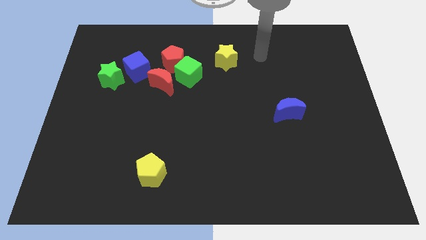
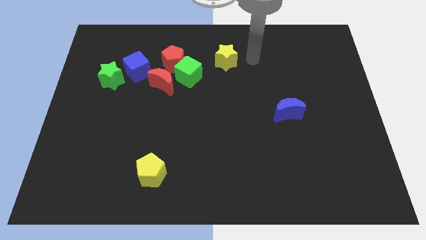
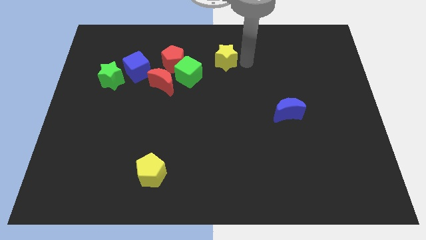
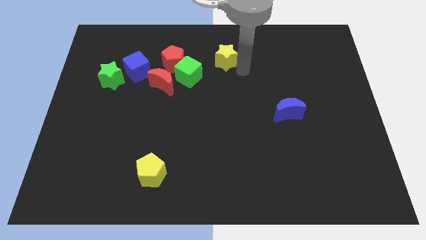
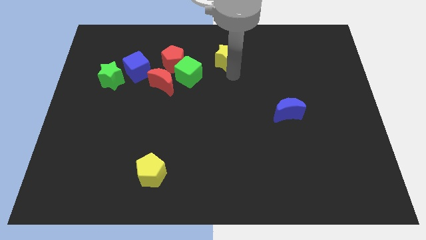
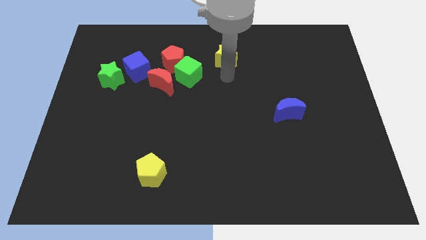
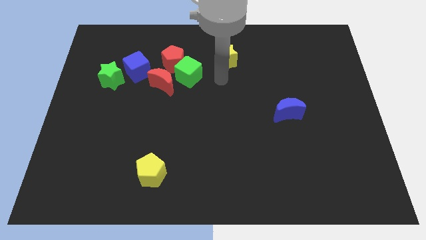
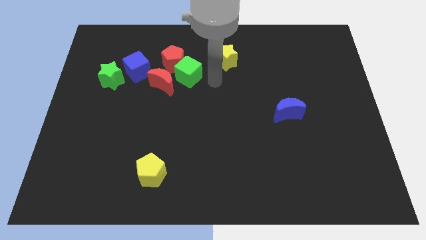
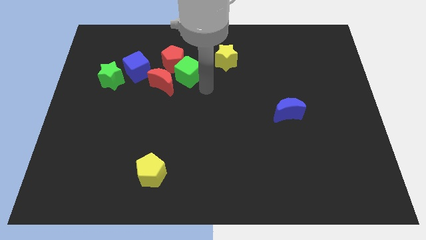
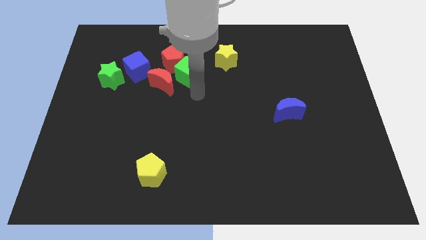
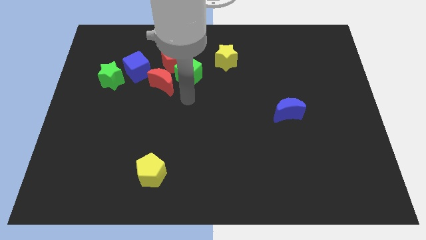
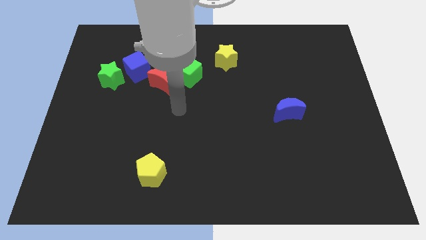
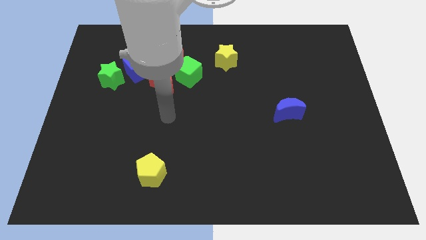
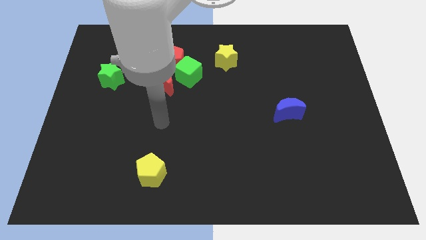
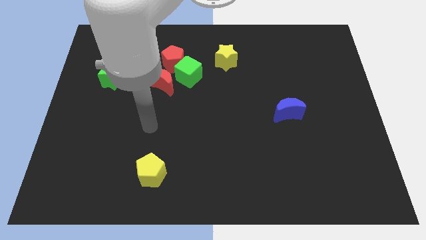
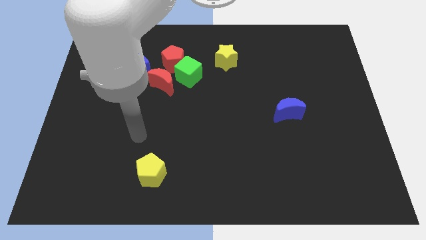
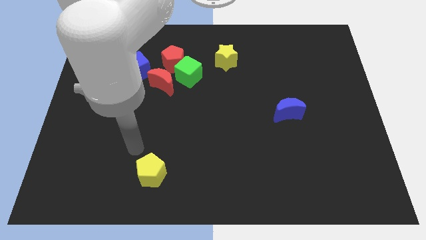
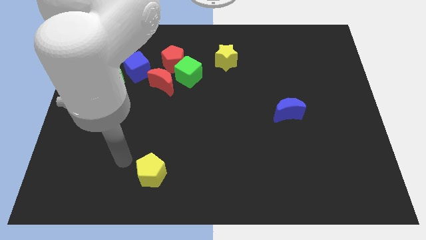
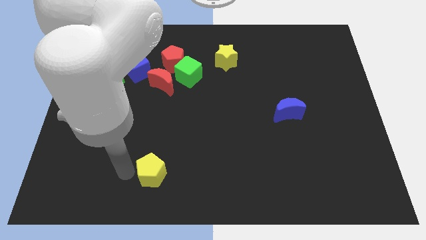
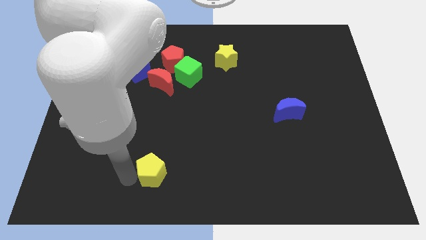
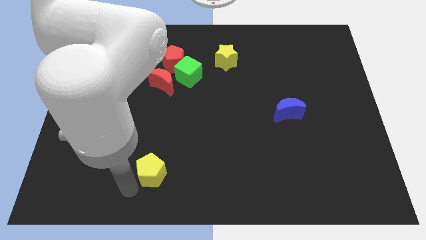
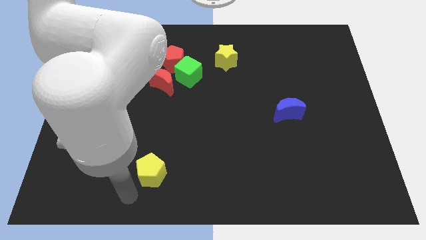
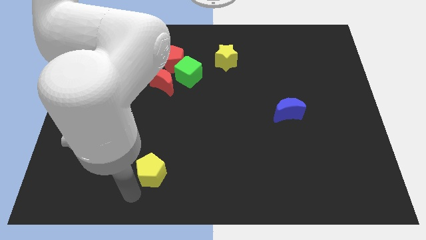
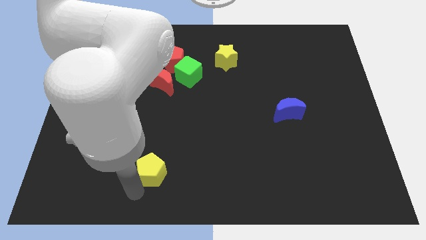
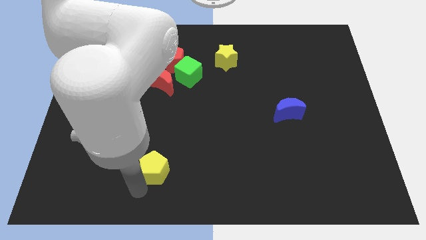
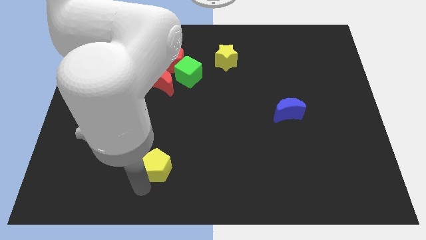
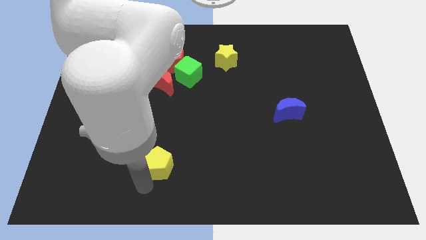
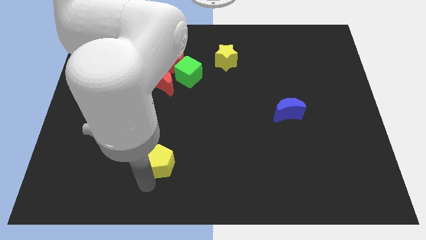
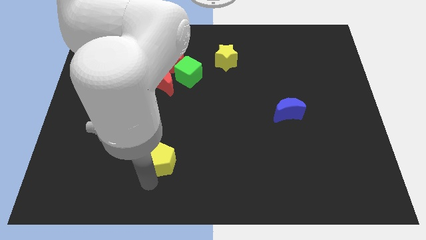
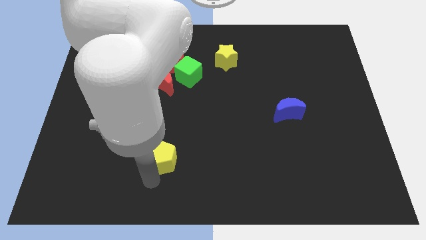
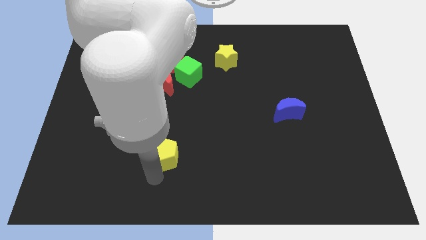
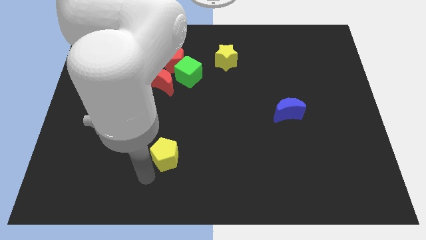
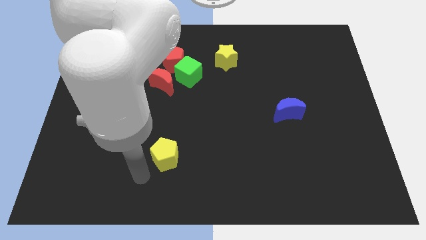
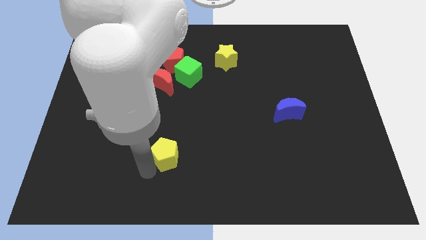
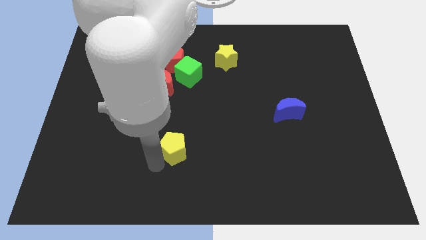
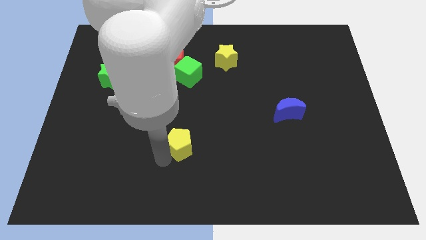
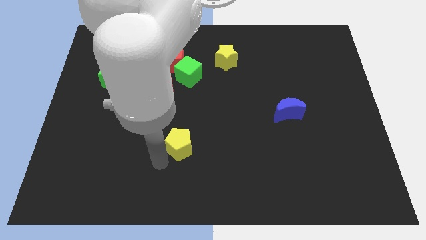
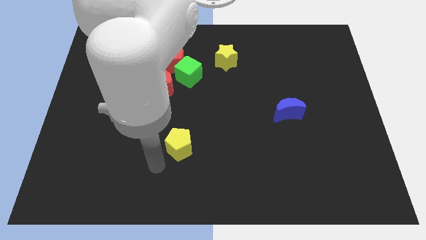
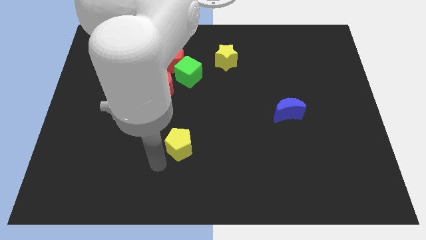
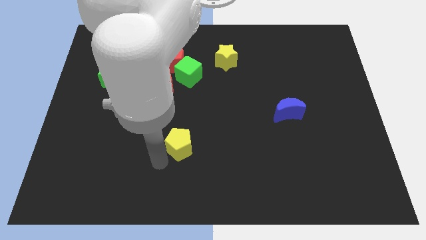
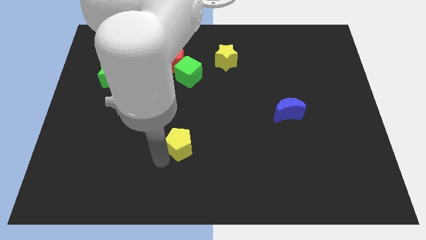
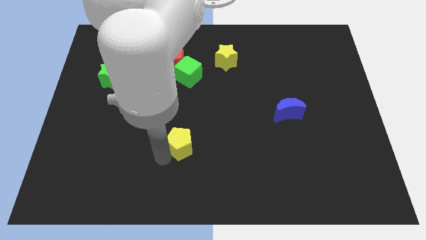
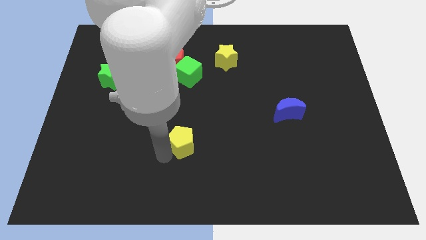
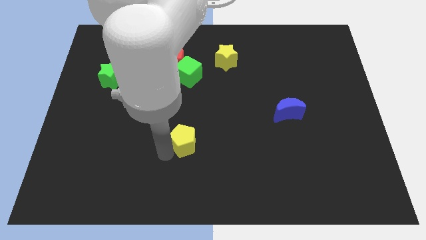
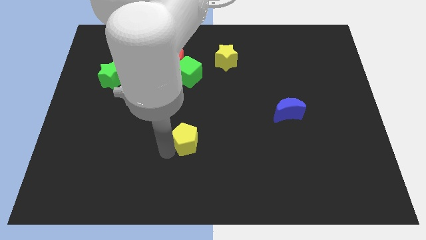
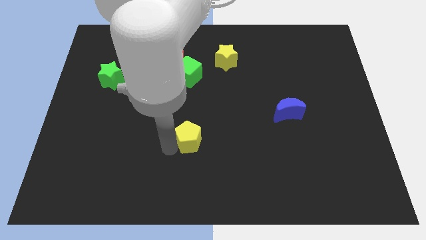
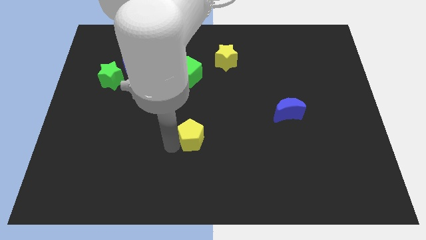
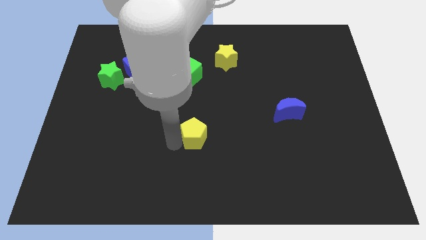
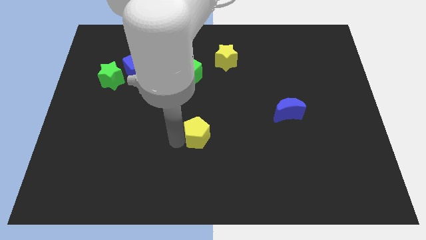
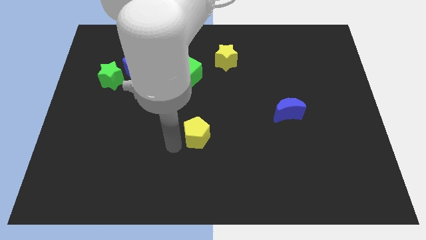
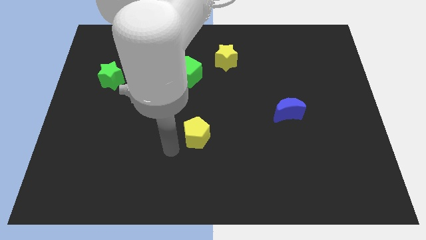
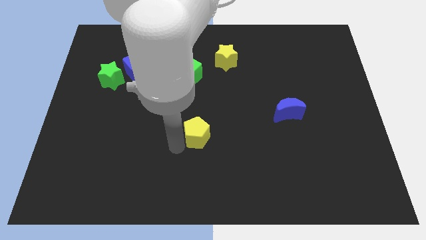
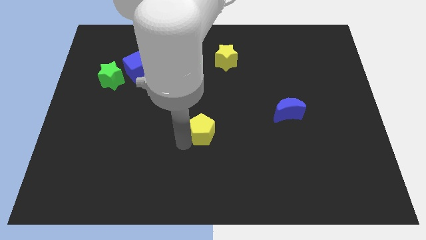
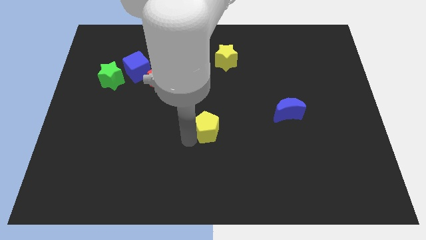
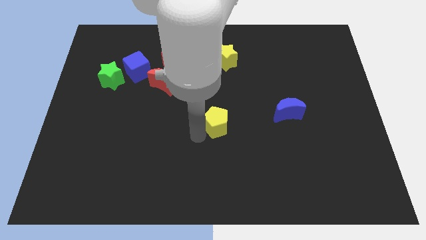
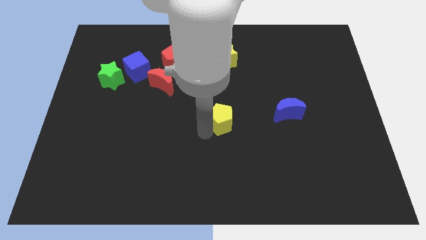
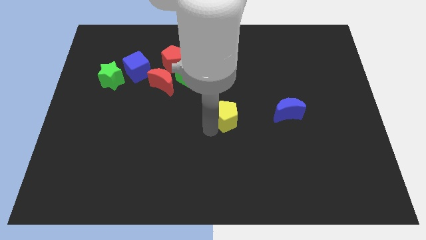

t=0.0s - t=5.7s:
push the yellow pentagon up and then right

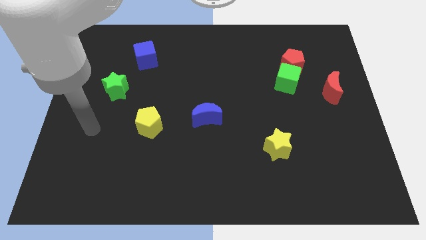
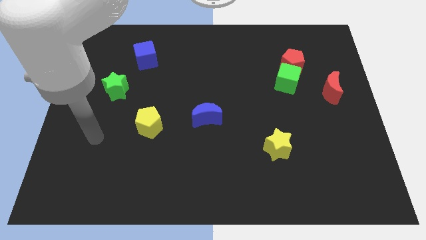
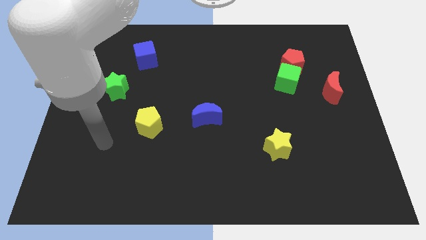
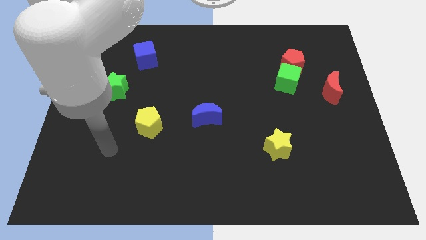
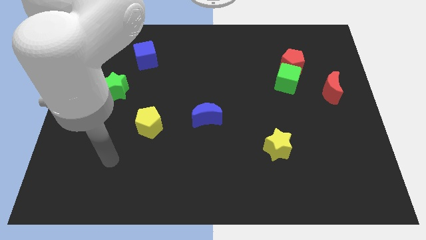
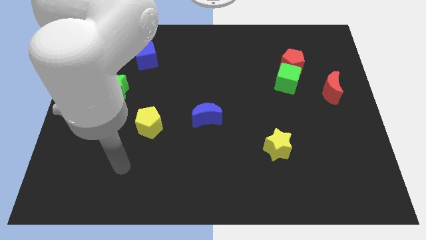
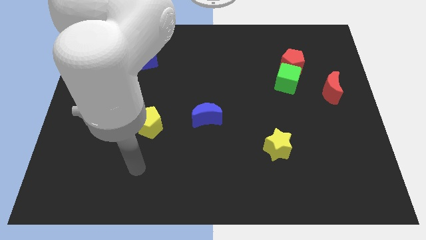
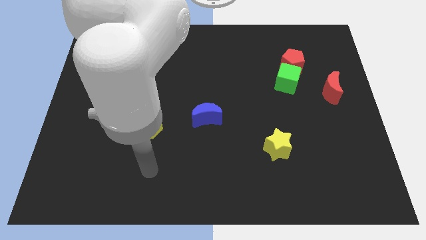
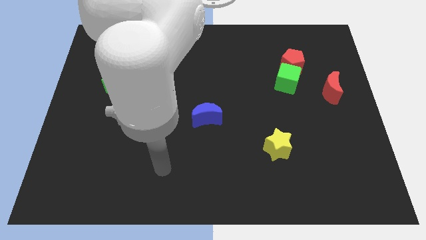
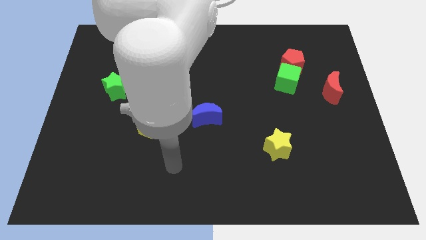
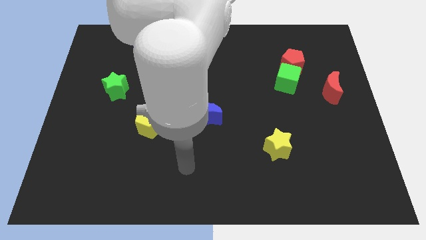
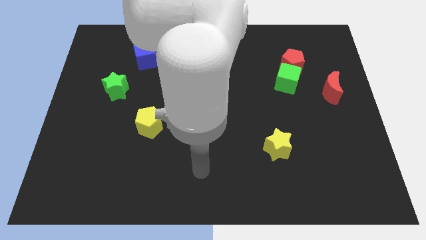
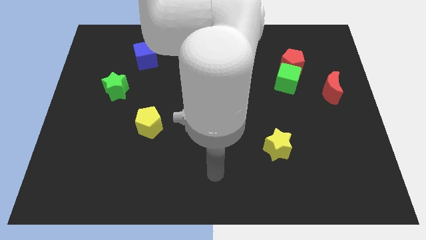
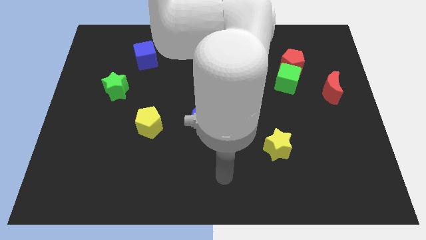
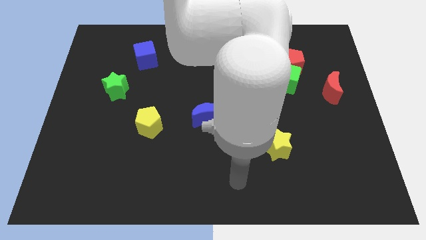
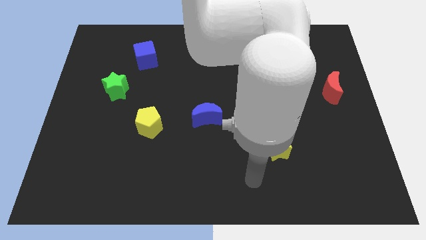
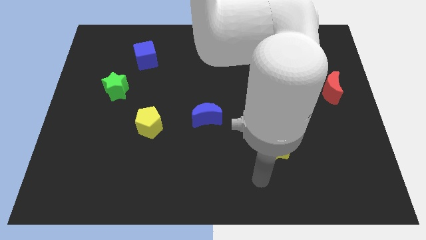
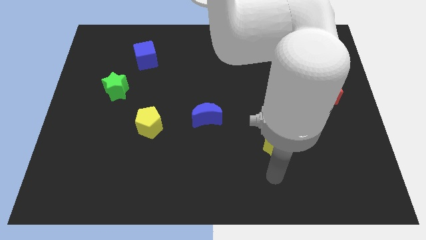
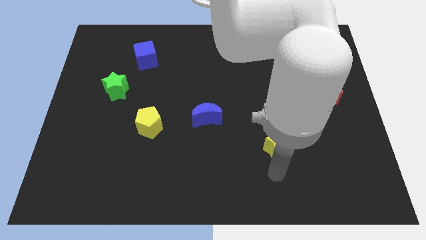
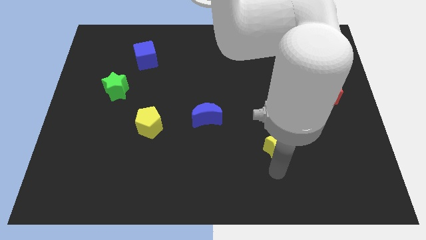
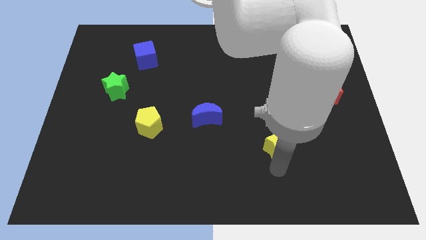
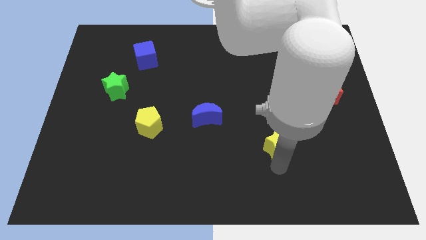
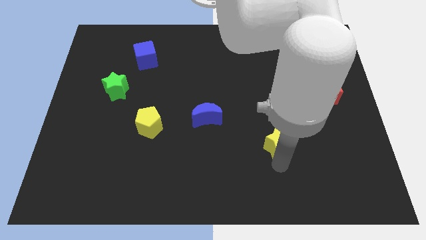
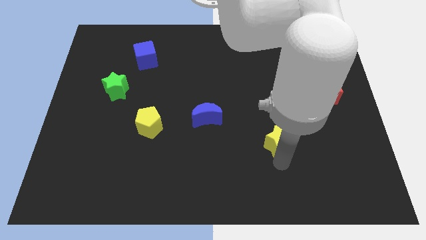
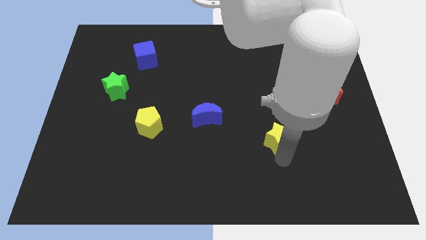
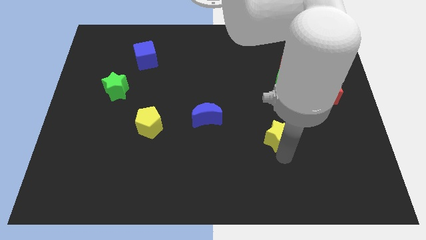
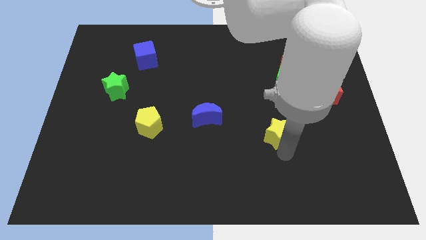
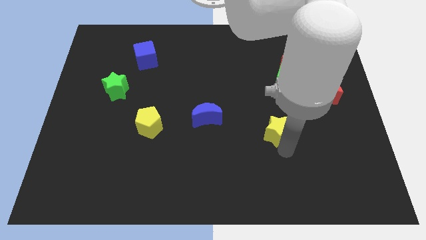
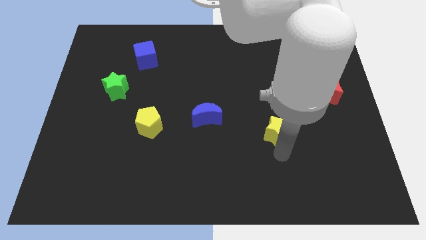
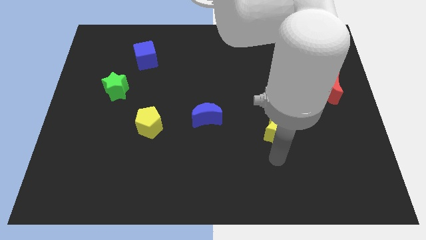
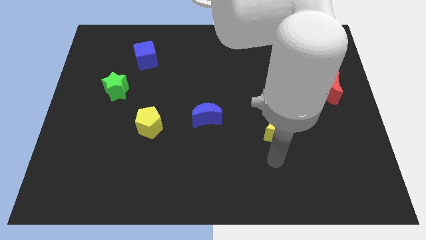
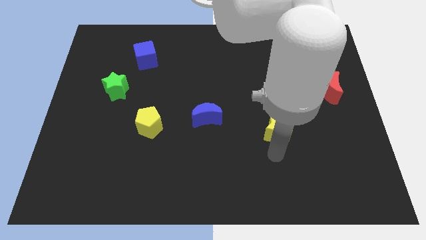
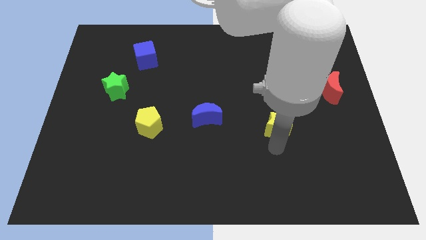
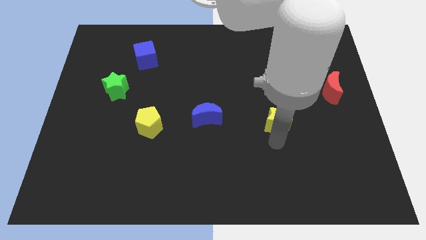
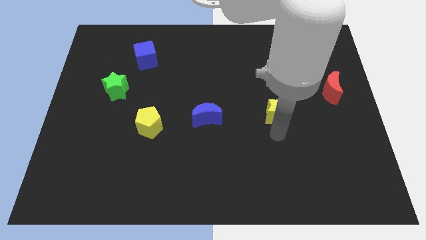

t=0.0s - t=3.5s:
slide the yellow star upwards a bit
